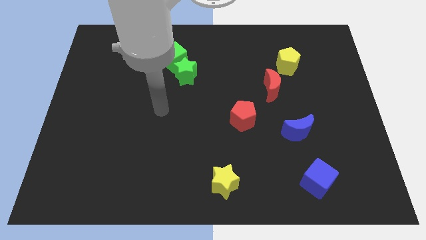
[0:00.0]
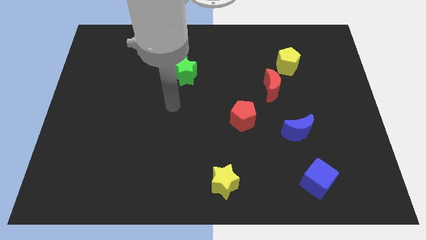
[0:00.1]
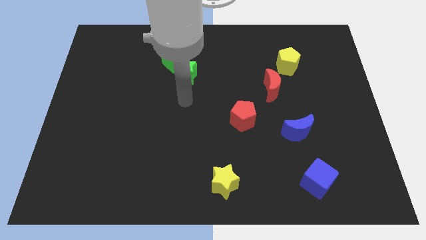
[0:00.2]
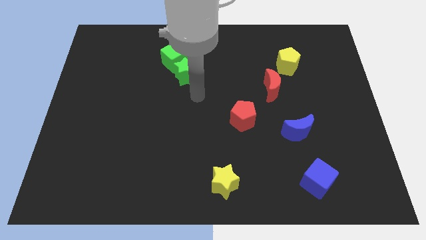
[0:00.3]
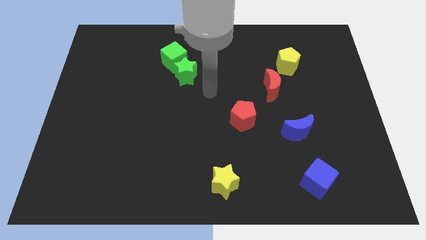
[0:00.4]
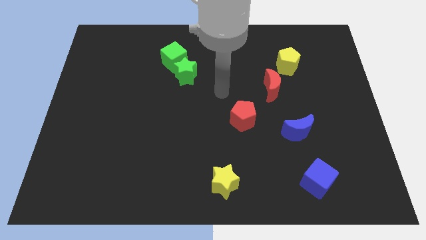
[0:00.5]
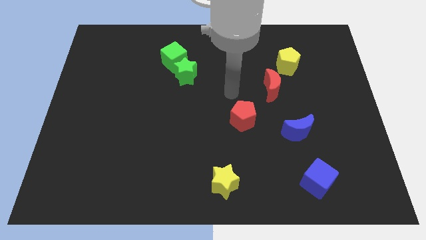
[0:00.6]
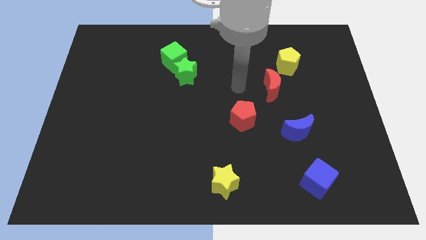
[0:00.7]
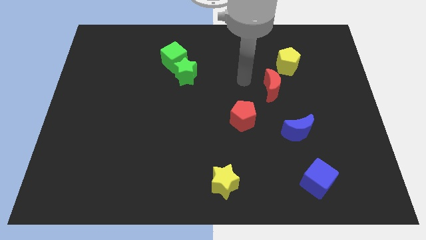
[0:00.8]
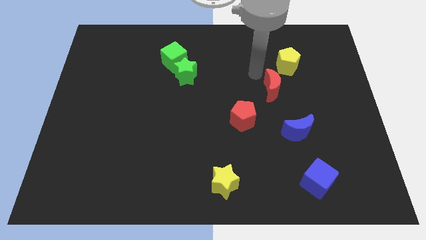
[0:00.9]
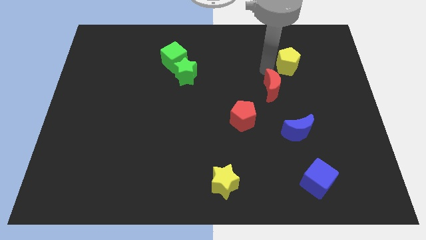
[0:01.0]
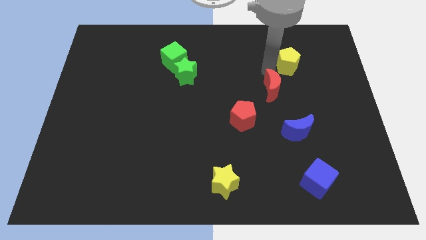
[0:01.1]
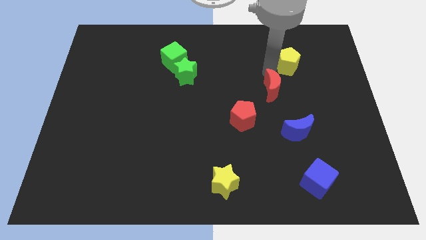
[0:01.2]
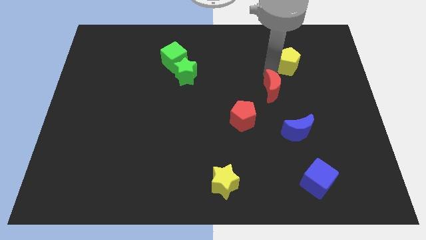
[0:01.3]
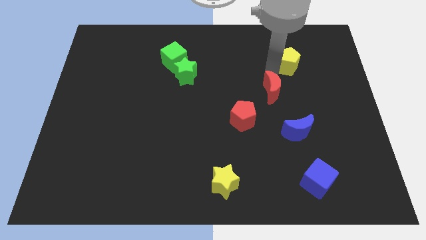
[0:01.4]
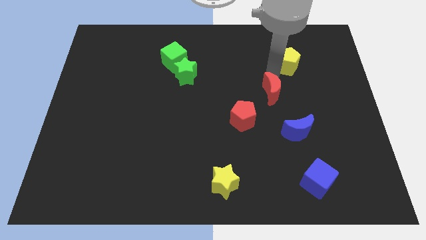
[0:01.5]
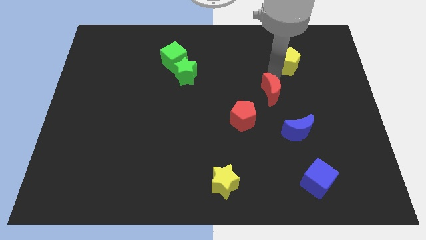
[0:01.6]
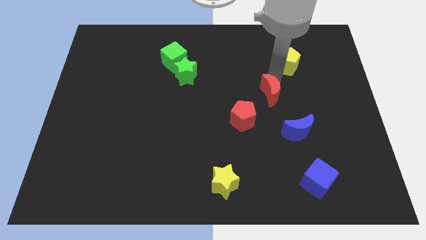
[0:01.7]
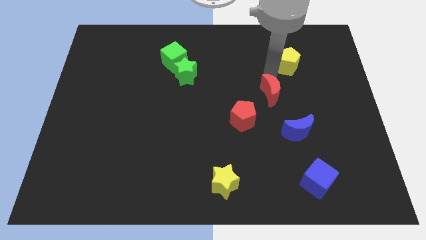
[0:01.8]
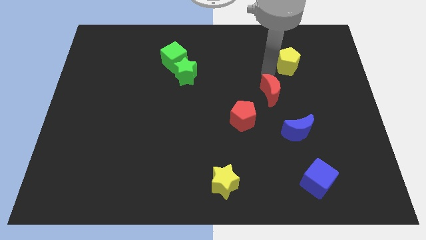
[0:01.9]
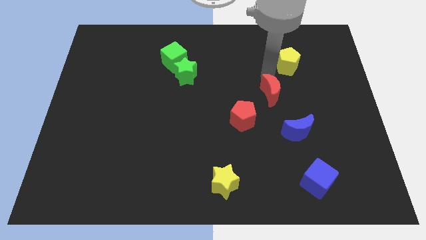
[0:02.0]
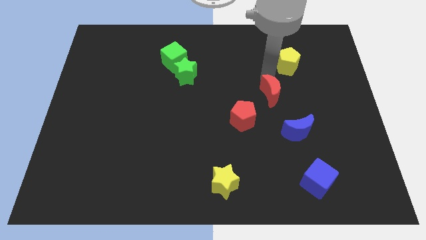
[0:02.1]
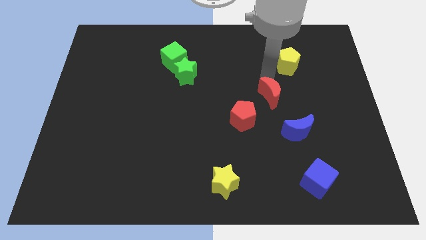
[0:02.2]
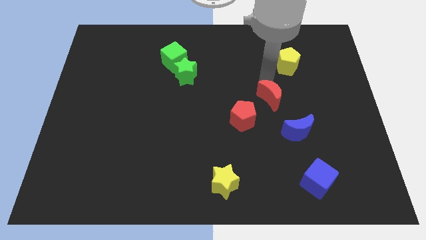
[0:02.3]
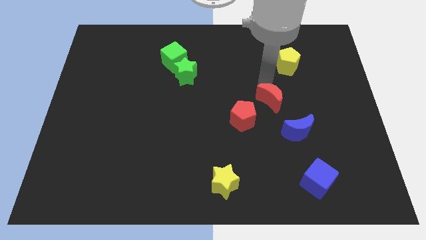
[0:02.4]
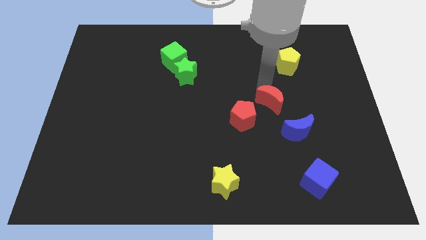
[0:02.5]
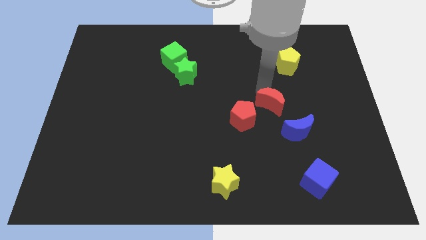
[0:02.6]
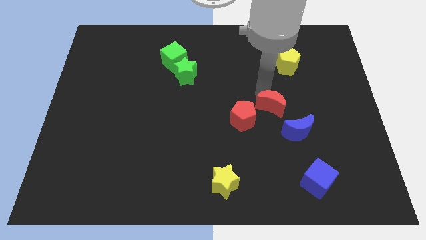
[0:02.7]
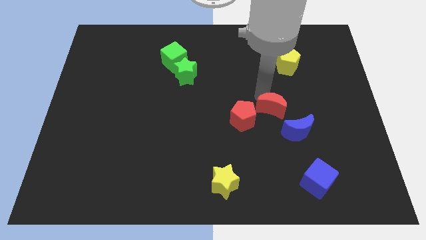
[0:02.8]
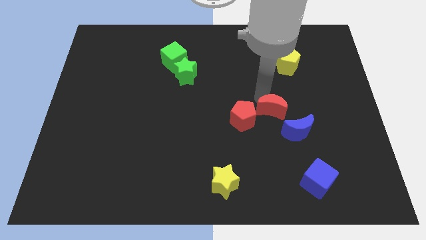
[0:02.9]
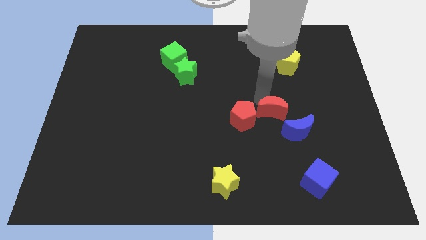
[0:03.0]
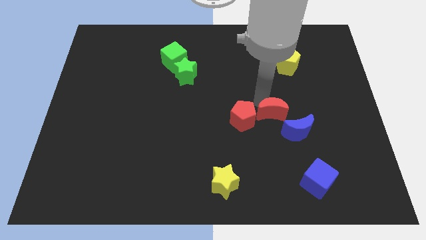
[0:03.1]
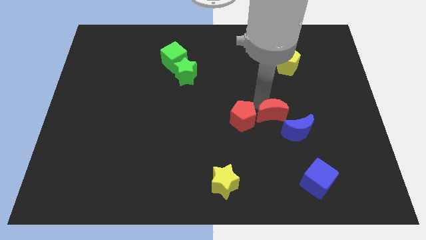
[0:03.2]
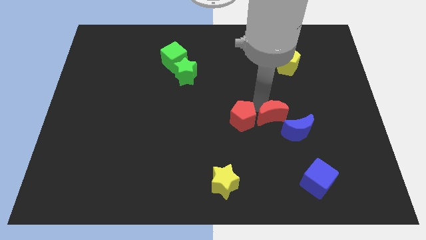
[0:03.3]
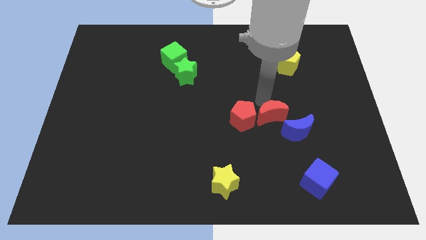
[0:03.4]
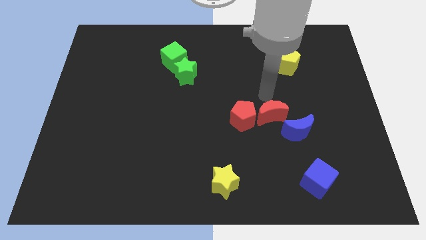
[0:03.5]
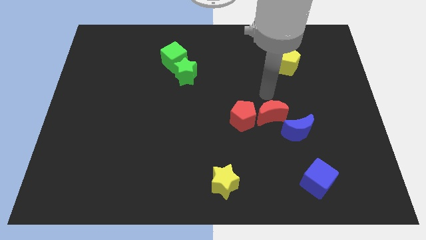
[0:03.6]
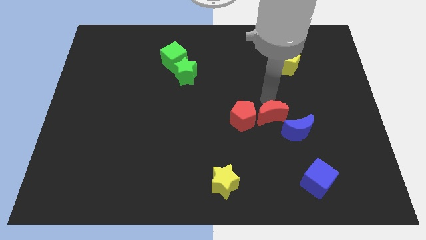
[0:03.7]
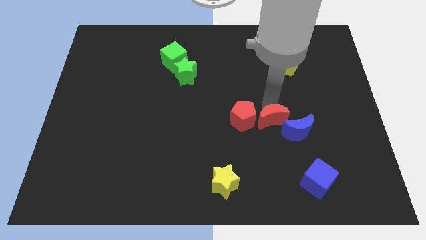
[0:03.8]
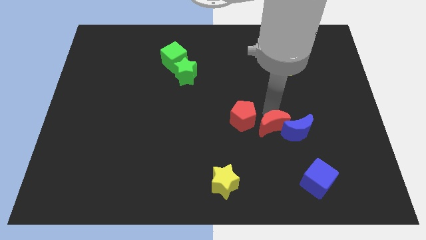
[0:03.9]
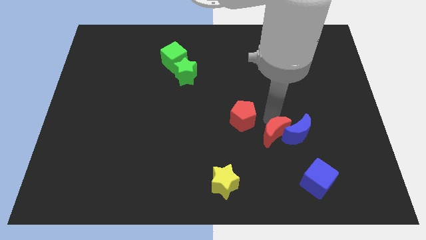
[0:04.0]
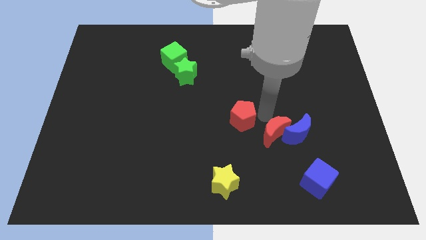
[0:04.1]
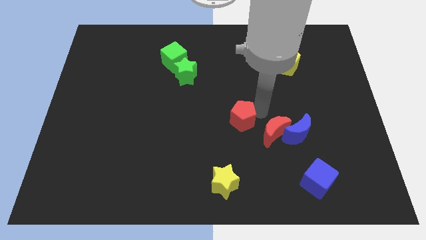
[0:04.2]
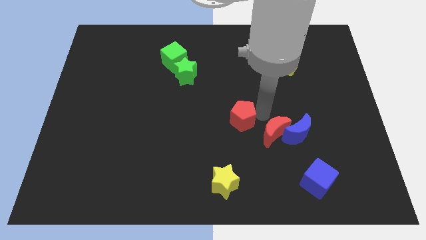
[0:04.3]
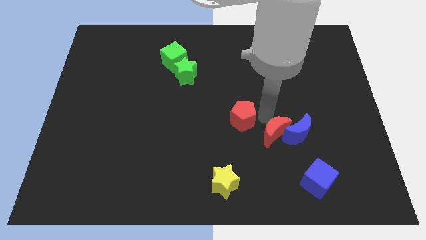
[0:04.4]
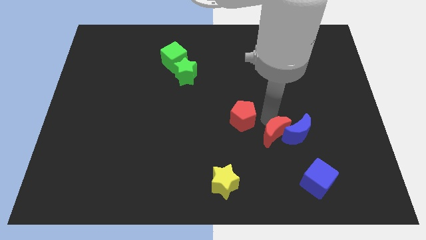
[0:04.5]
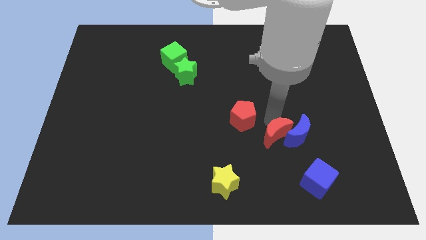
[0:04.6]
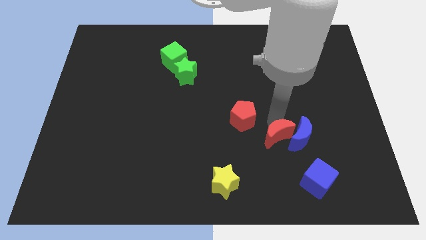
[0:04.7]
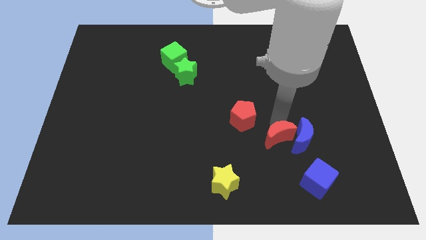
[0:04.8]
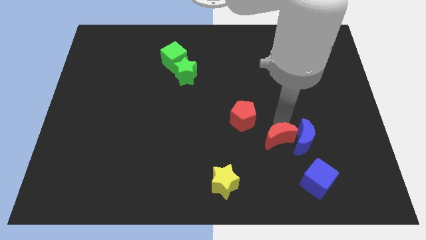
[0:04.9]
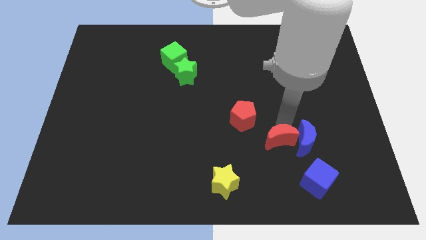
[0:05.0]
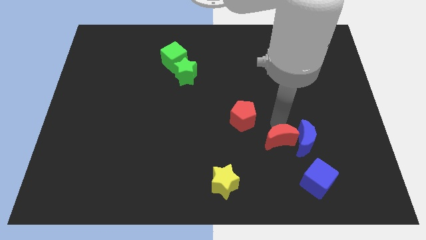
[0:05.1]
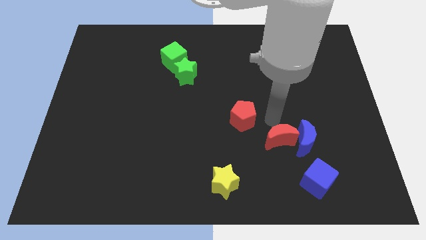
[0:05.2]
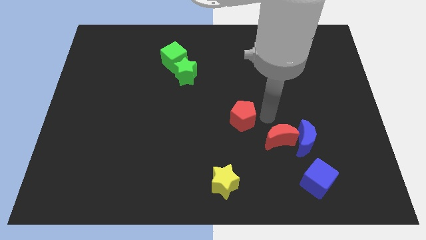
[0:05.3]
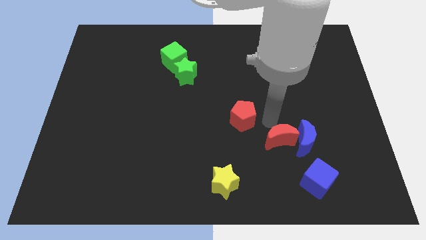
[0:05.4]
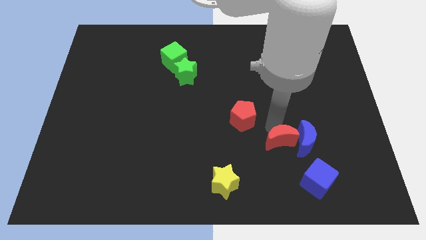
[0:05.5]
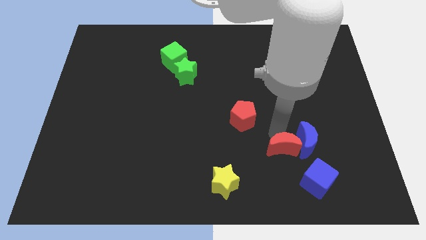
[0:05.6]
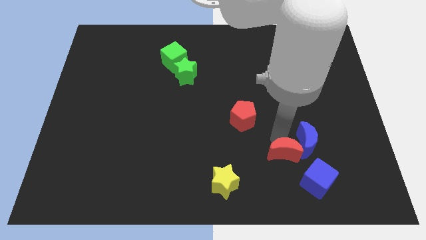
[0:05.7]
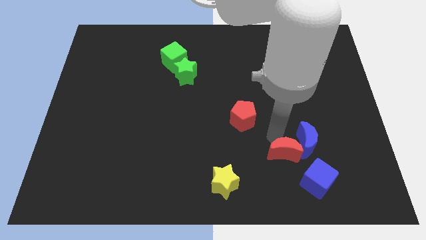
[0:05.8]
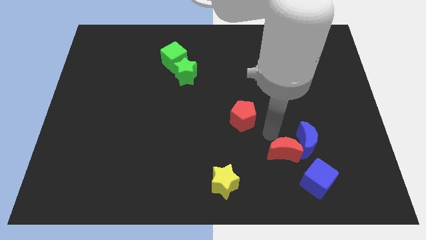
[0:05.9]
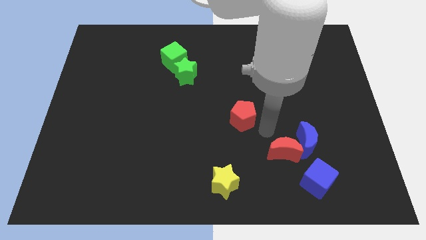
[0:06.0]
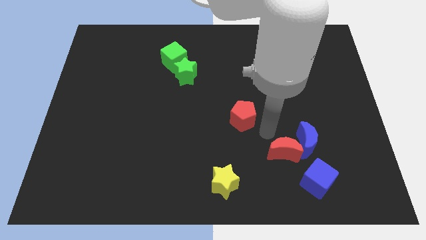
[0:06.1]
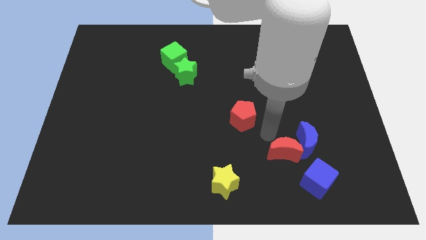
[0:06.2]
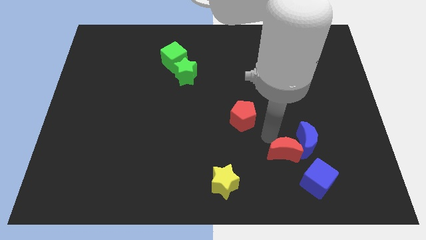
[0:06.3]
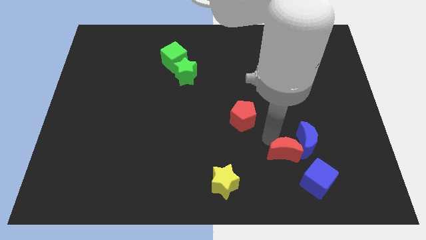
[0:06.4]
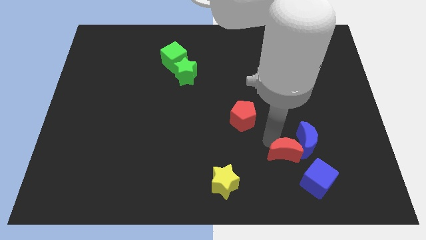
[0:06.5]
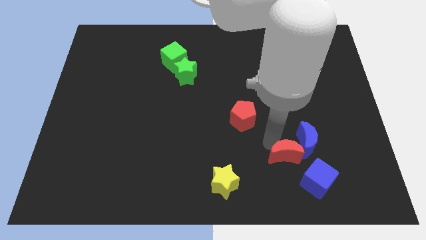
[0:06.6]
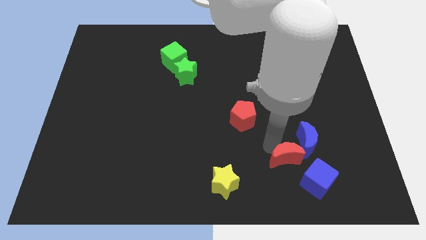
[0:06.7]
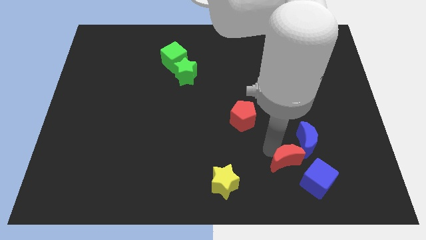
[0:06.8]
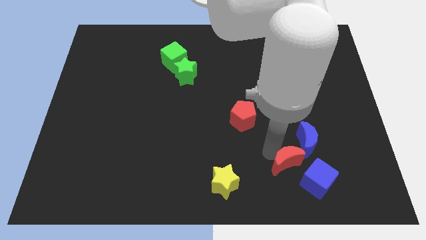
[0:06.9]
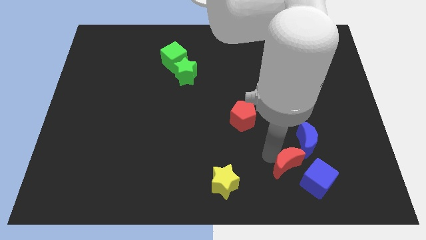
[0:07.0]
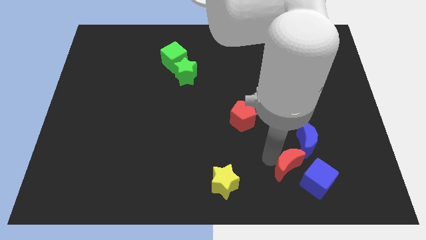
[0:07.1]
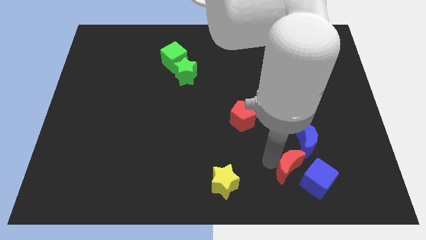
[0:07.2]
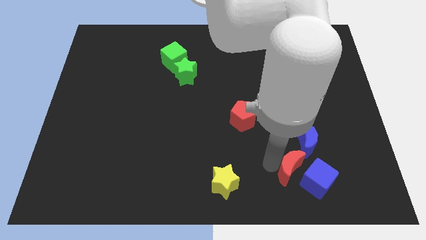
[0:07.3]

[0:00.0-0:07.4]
put the red moon to the blue cube

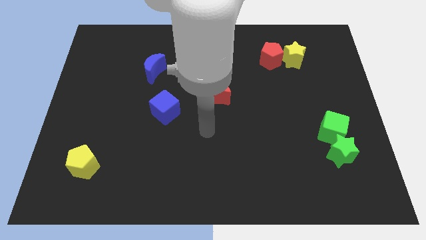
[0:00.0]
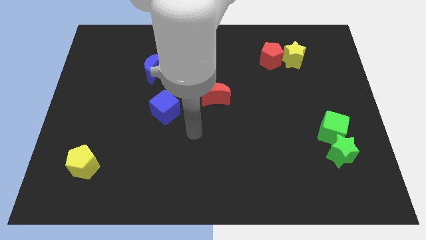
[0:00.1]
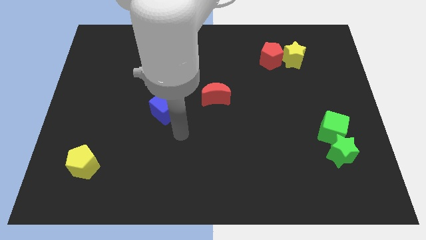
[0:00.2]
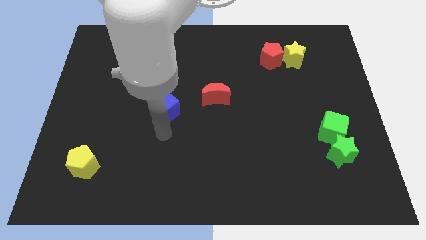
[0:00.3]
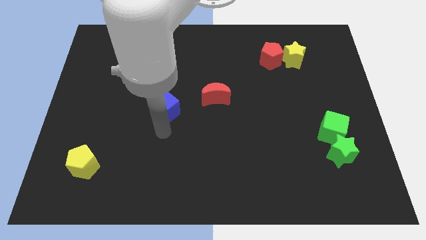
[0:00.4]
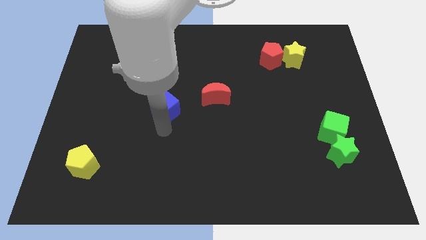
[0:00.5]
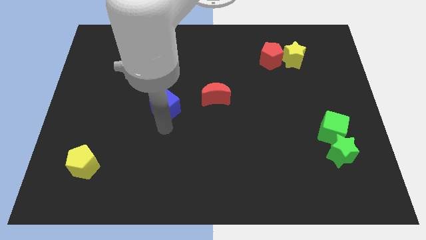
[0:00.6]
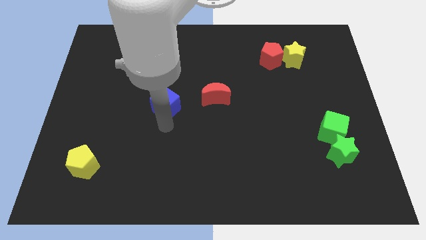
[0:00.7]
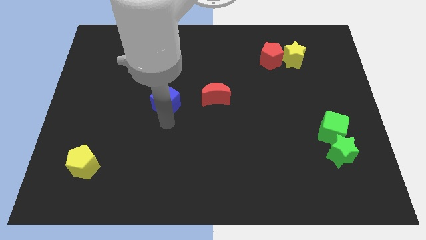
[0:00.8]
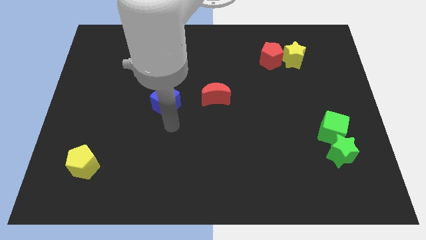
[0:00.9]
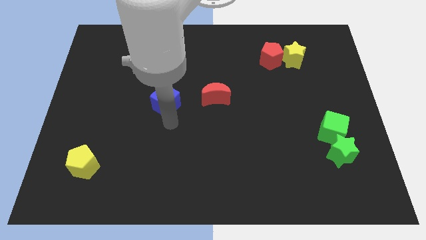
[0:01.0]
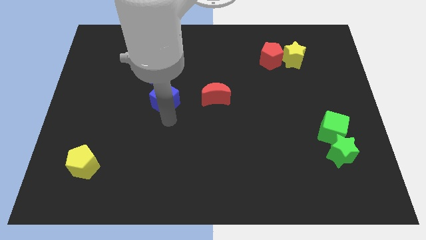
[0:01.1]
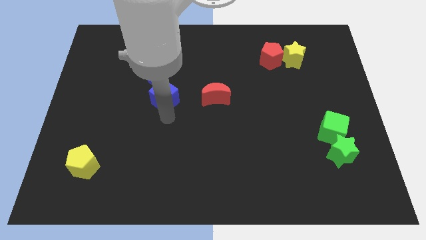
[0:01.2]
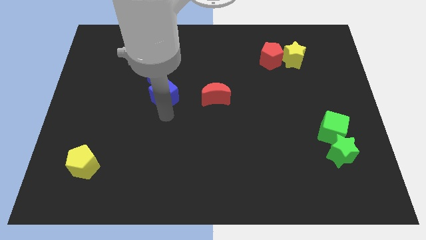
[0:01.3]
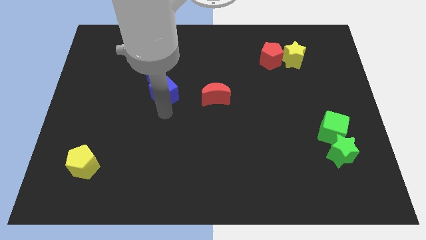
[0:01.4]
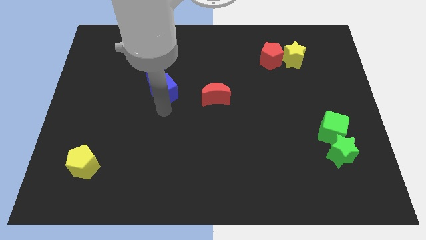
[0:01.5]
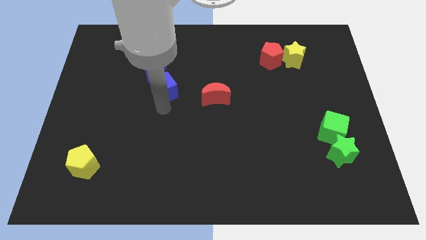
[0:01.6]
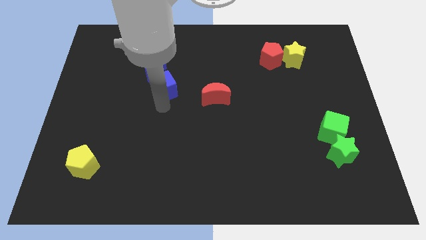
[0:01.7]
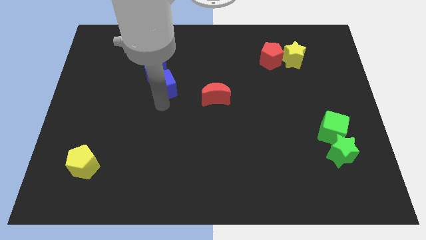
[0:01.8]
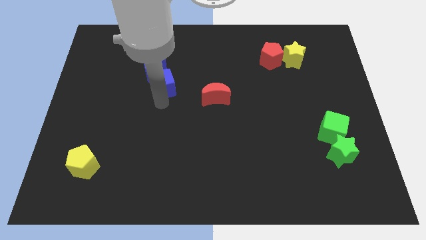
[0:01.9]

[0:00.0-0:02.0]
put the blue cube close to the blue moon
